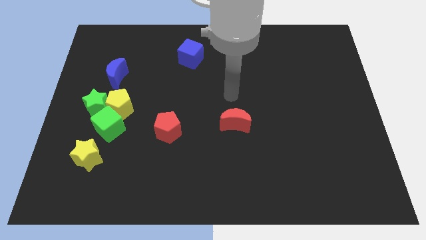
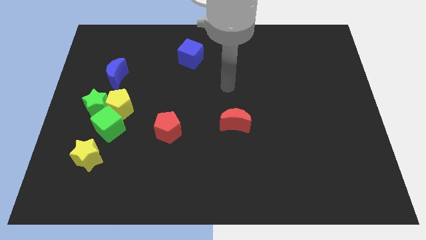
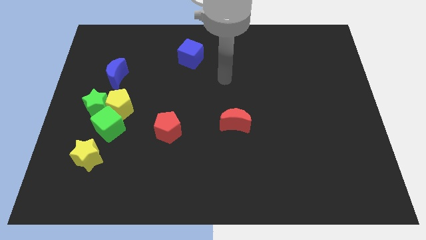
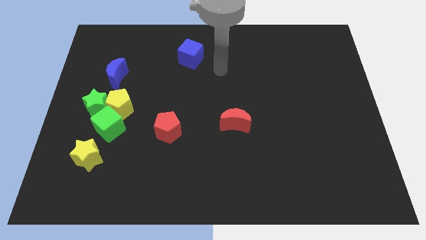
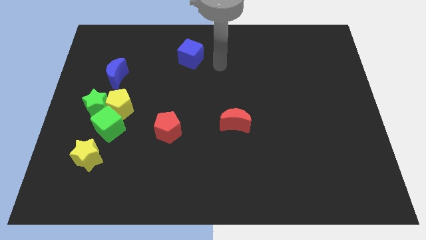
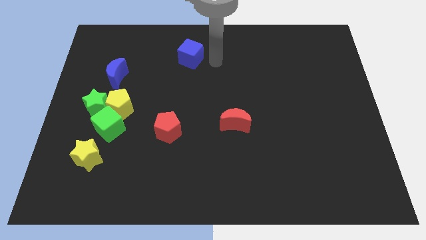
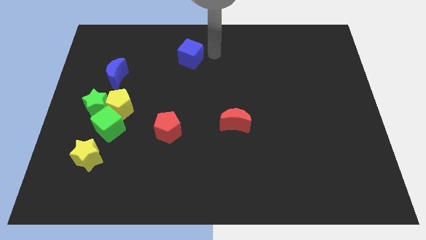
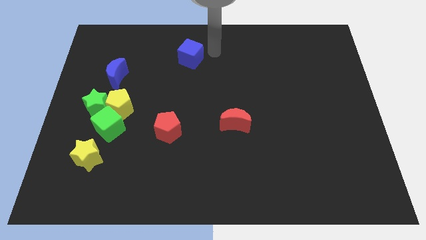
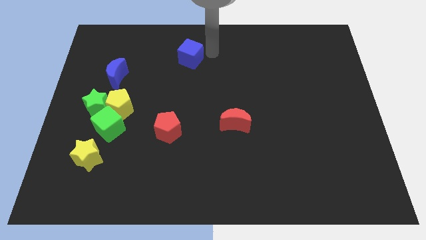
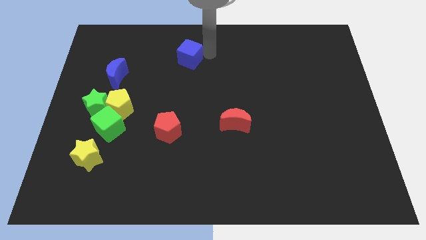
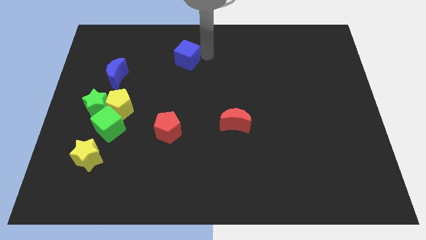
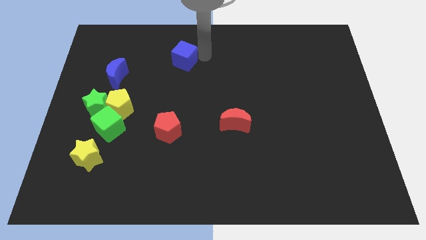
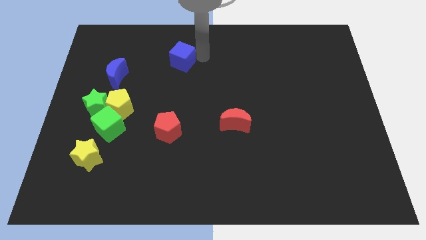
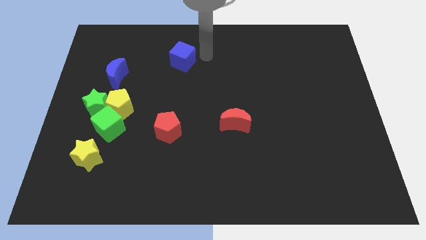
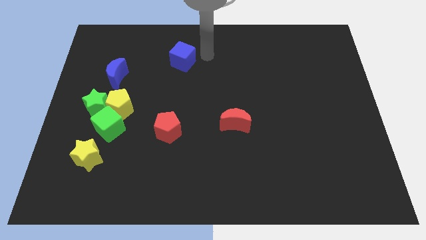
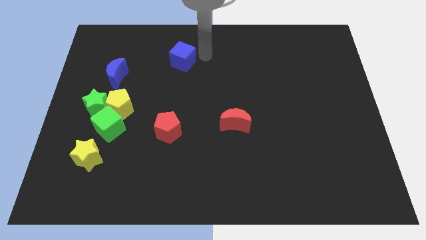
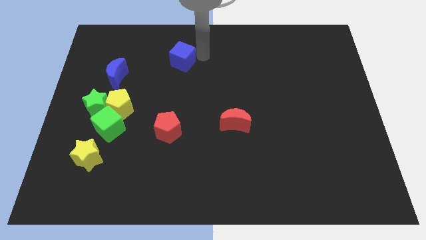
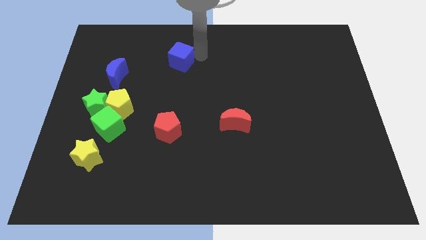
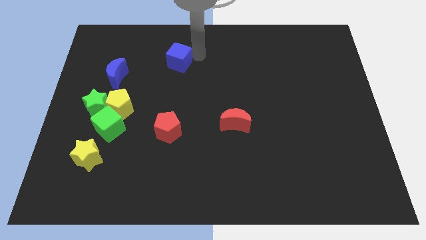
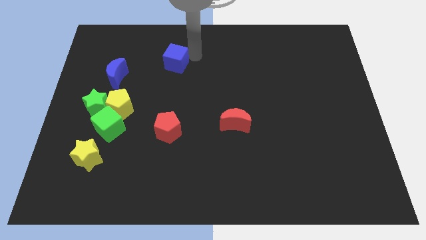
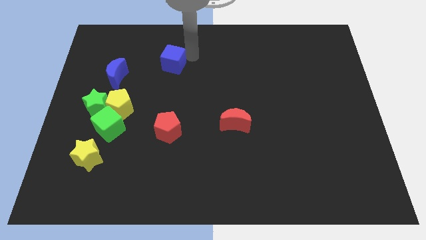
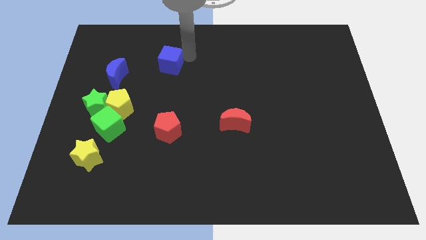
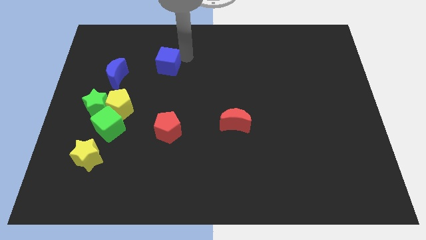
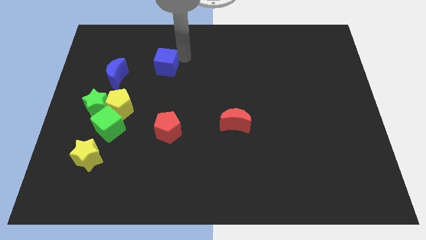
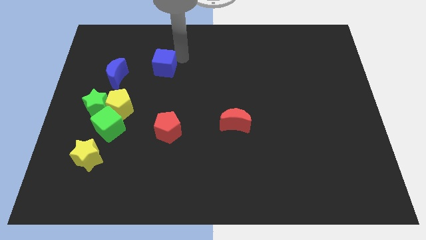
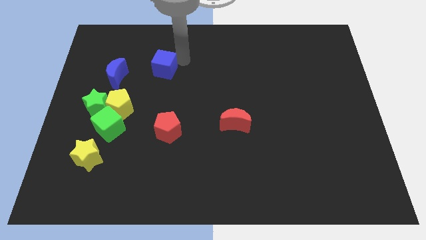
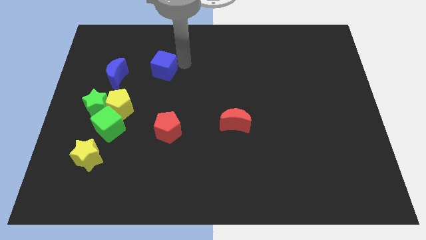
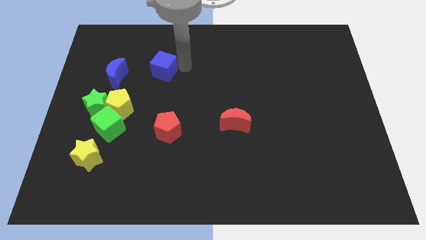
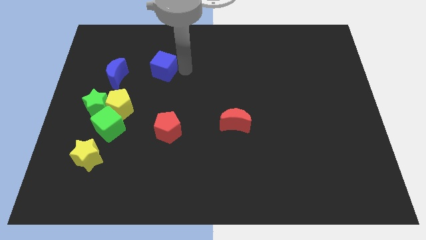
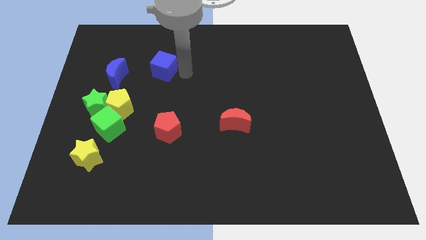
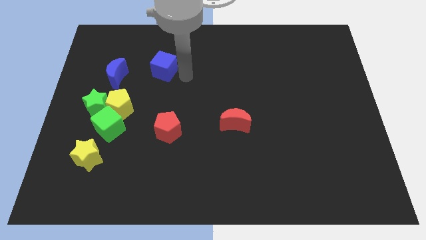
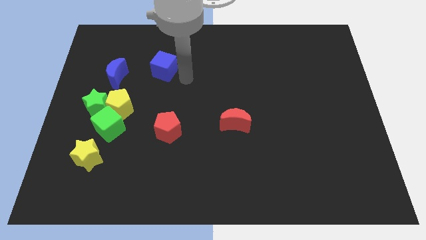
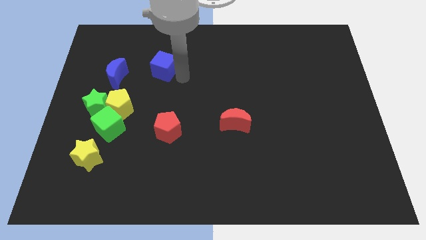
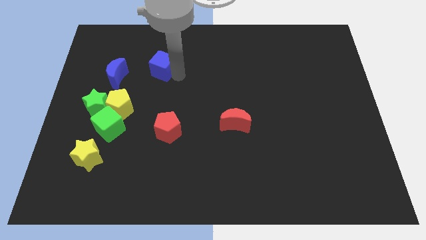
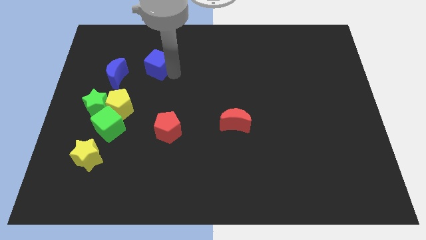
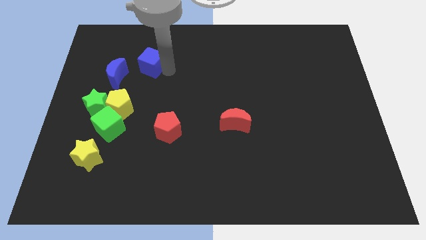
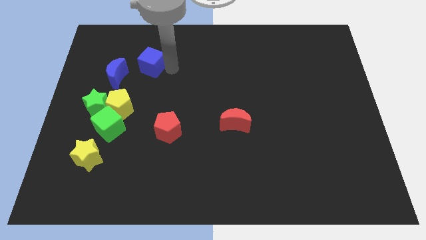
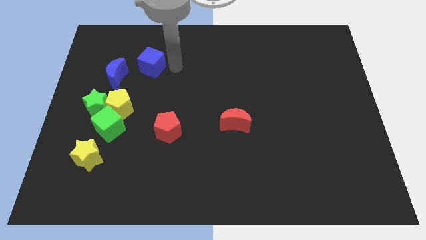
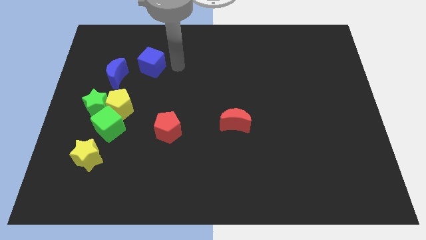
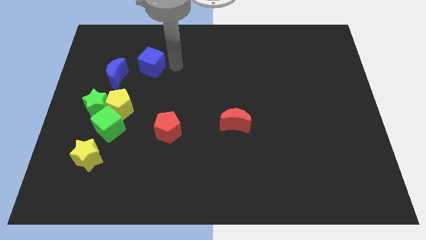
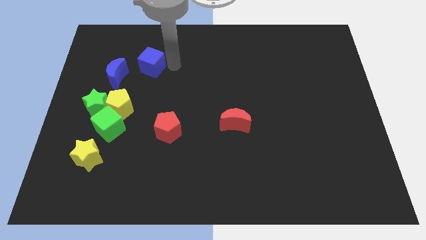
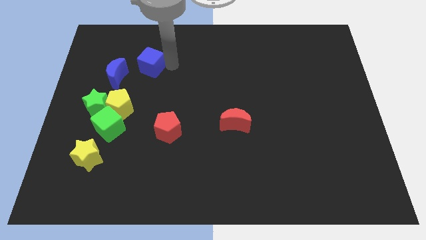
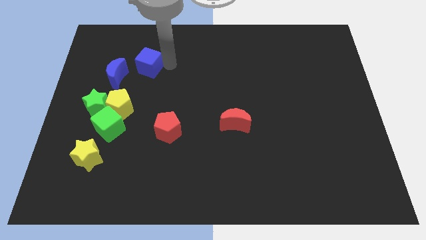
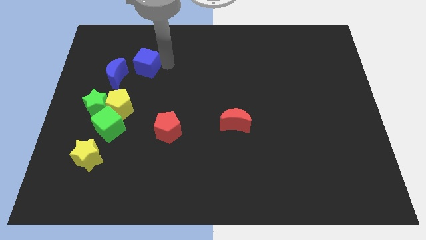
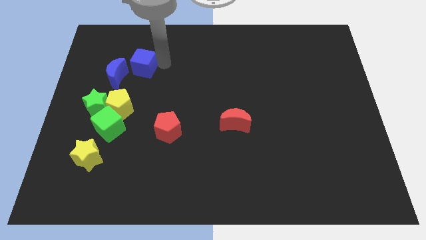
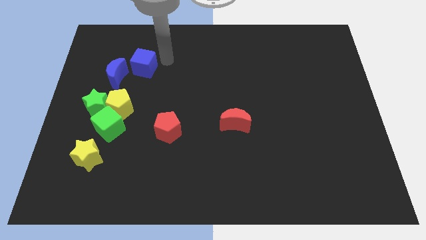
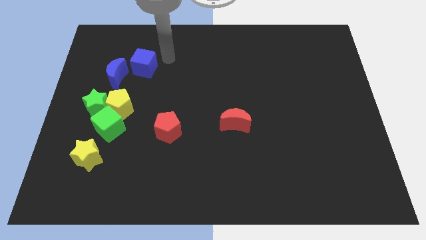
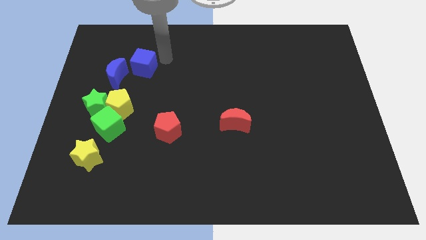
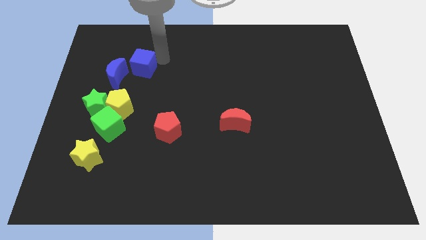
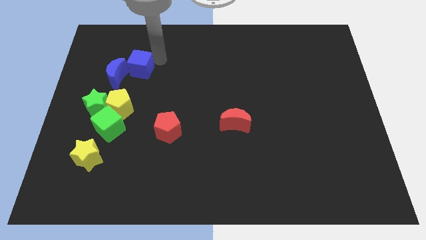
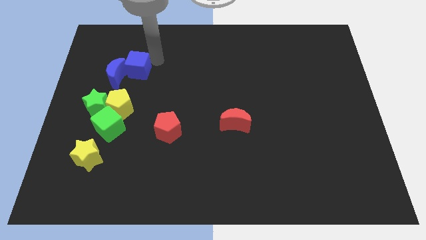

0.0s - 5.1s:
slide the blue cube close to the blue moon

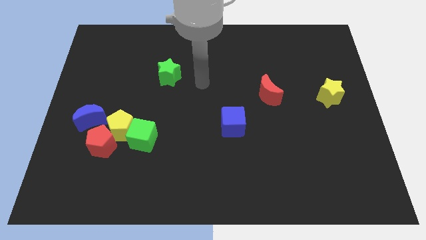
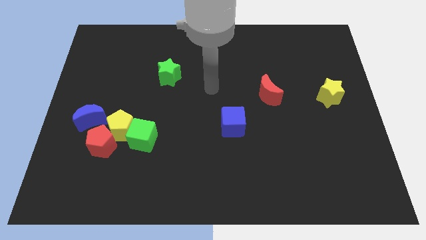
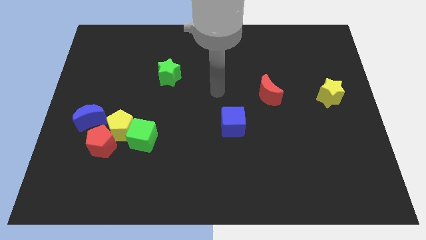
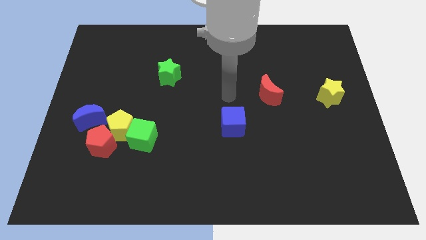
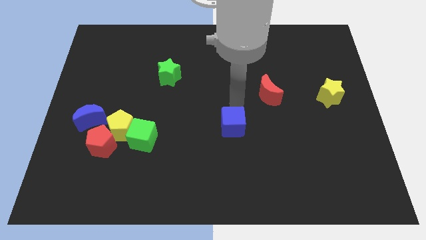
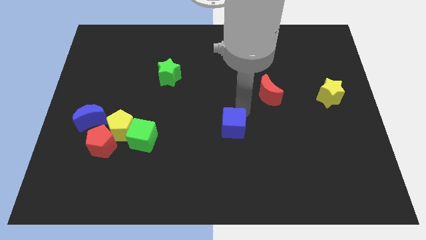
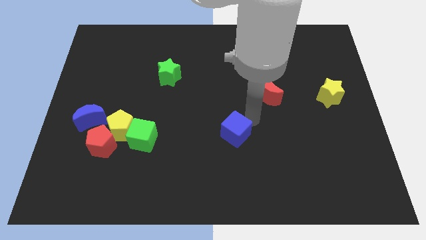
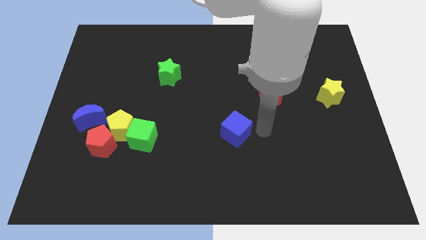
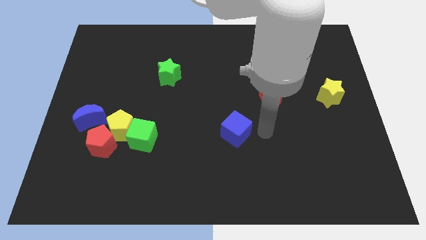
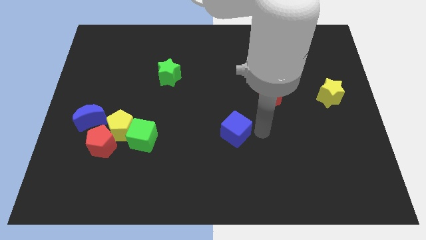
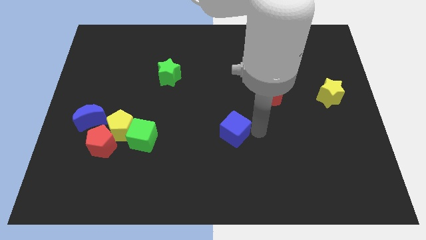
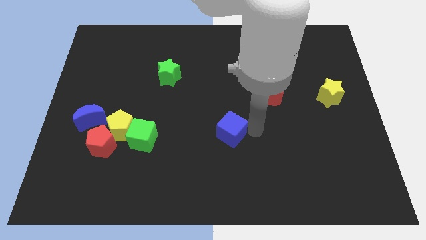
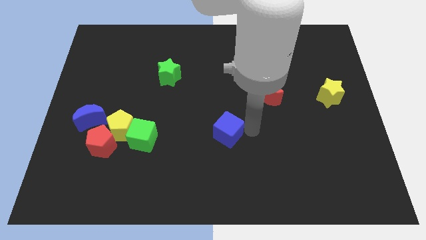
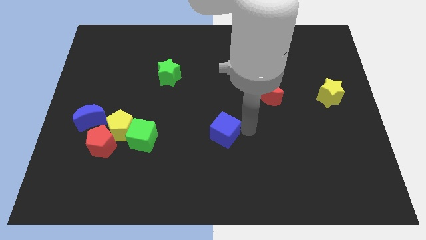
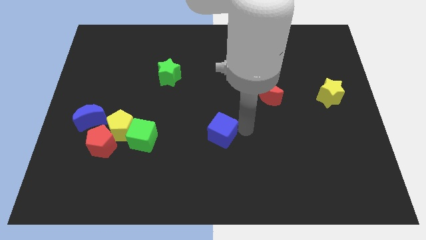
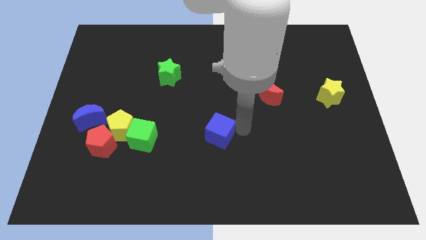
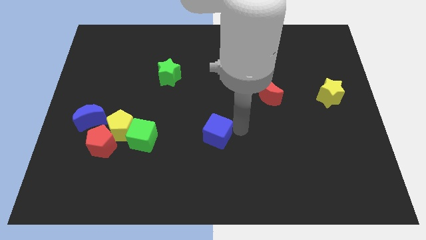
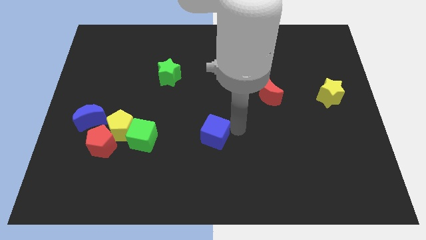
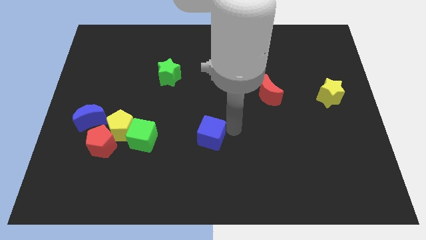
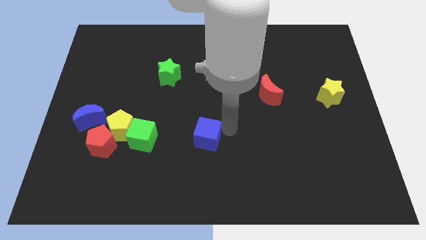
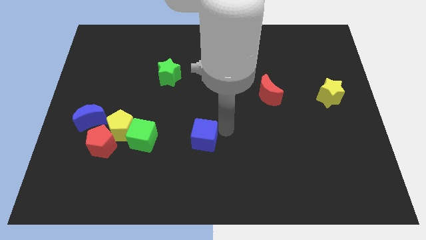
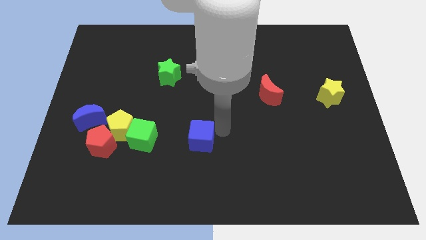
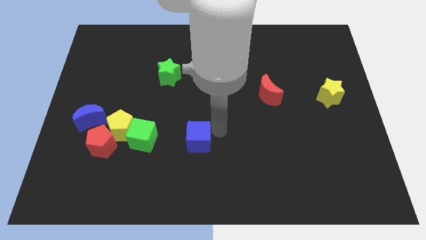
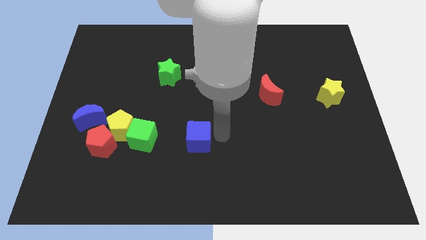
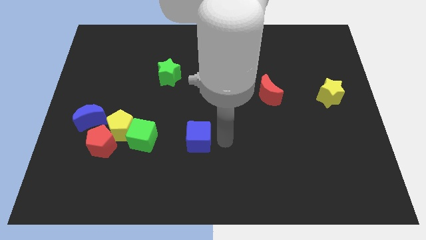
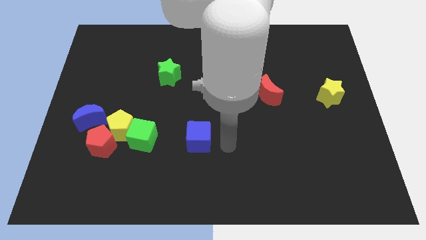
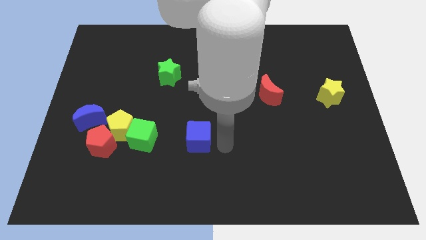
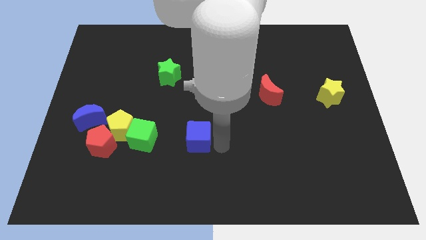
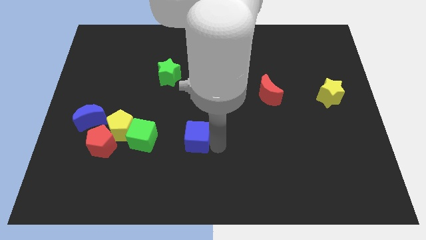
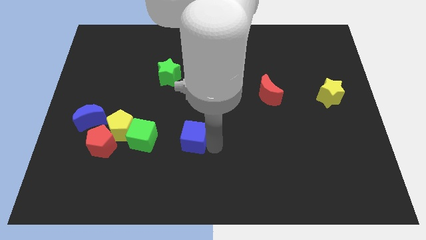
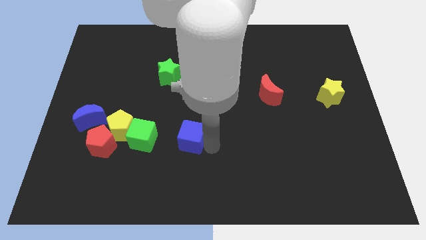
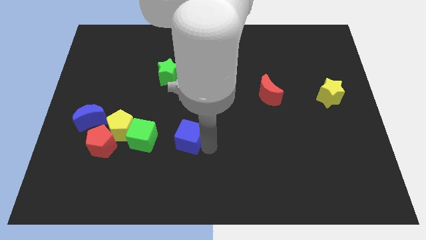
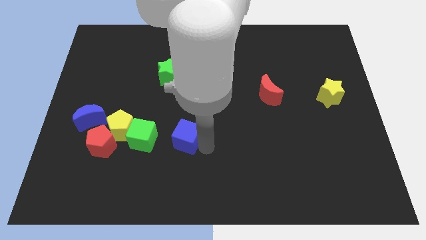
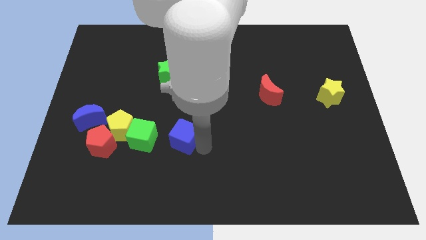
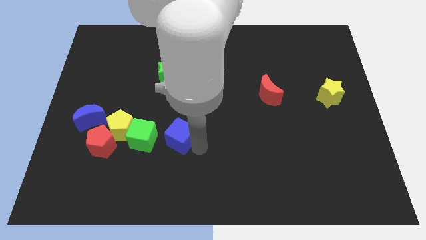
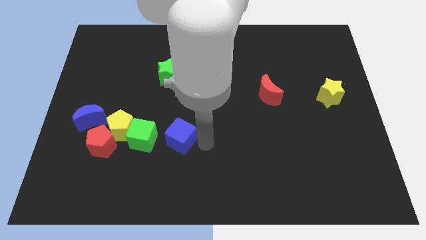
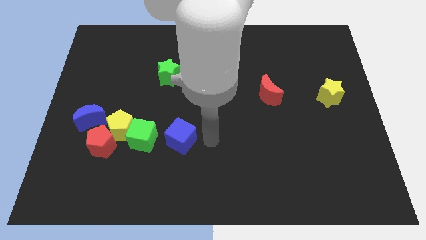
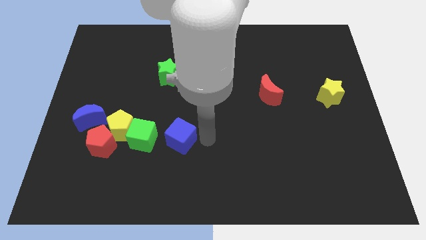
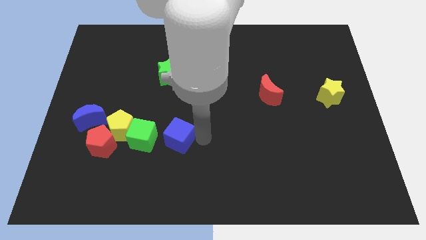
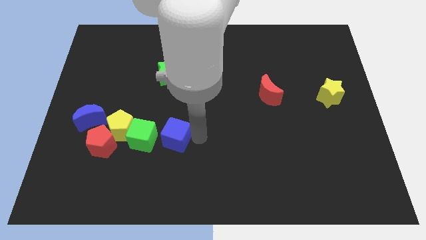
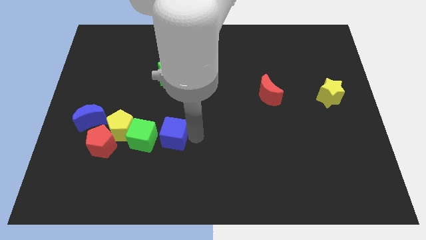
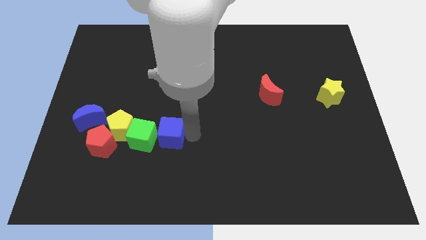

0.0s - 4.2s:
push the blue cube to the green cube
